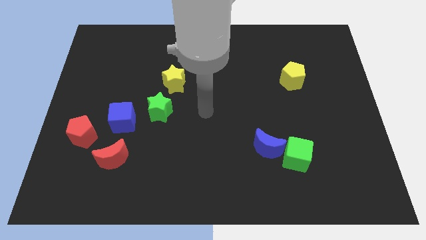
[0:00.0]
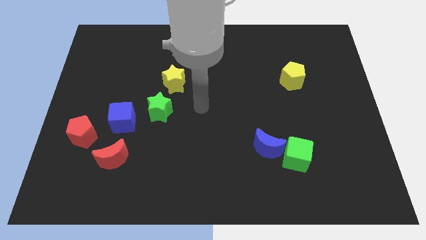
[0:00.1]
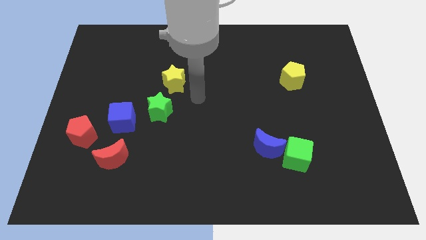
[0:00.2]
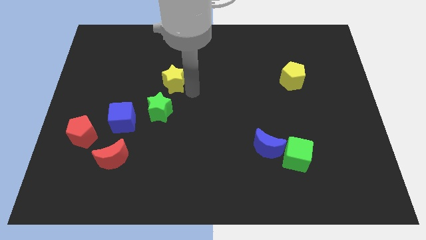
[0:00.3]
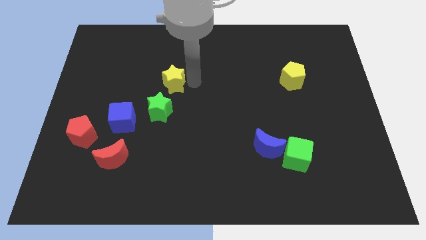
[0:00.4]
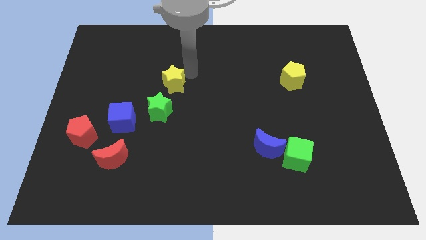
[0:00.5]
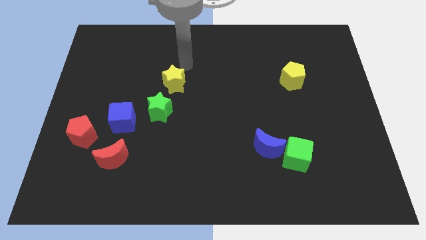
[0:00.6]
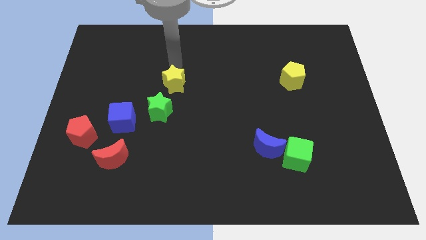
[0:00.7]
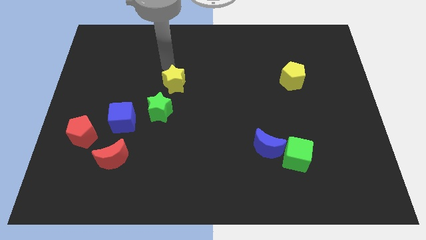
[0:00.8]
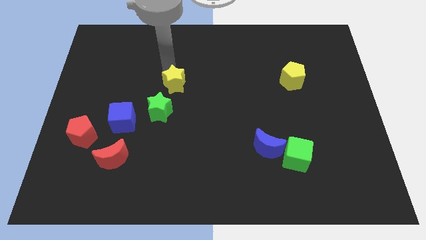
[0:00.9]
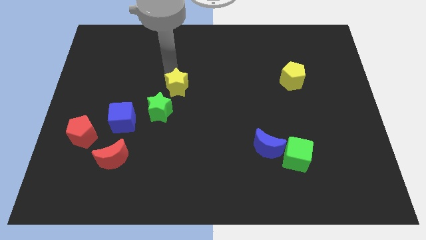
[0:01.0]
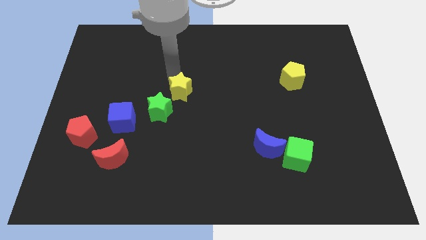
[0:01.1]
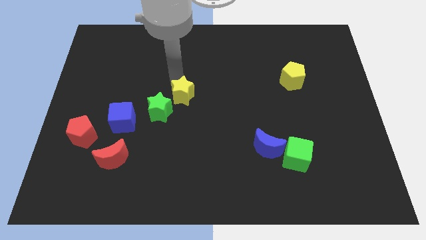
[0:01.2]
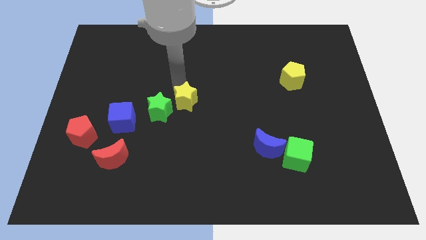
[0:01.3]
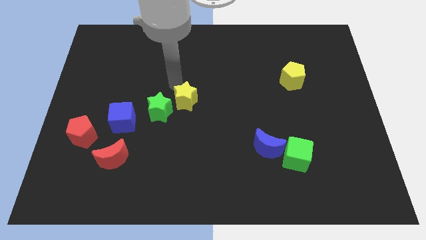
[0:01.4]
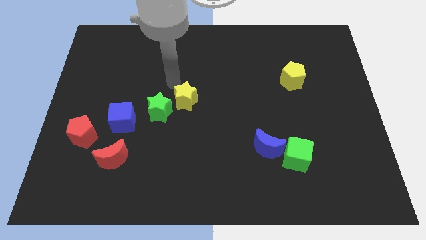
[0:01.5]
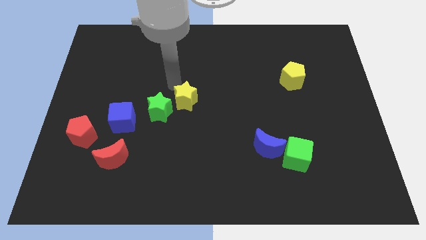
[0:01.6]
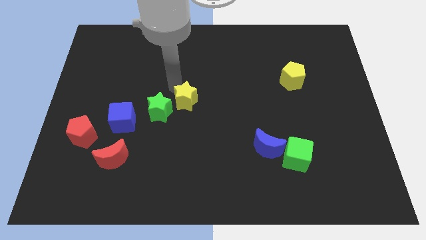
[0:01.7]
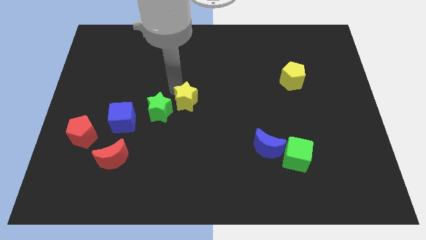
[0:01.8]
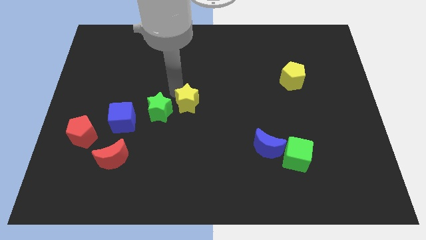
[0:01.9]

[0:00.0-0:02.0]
push the yellow star downwards and to the right diagonally a little

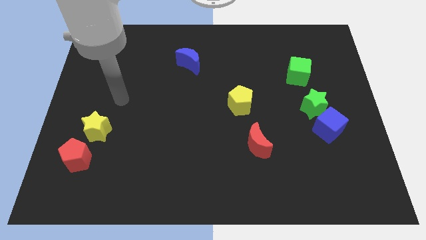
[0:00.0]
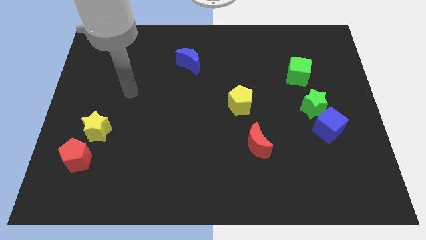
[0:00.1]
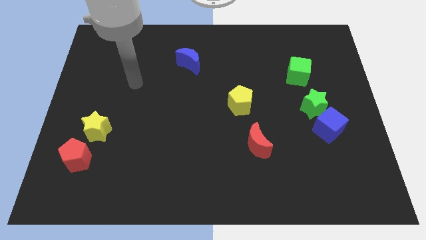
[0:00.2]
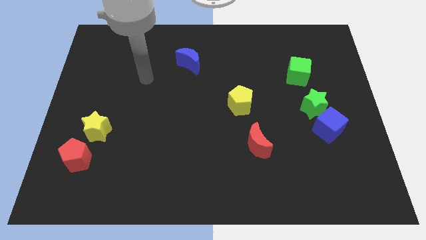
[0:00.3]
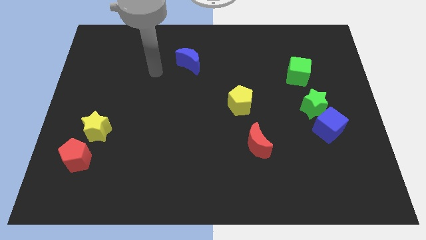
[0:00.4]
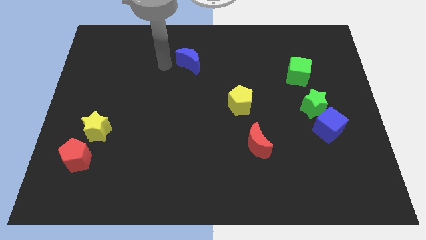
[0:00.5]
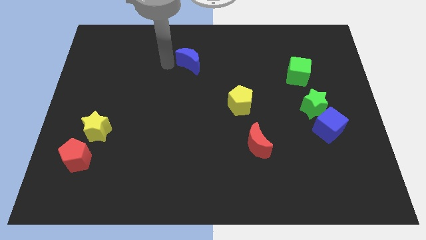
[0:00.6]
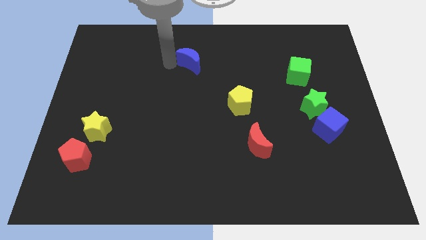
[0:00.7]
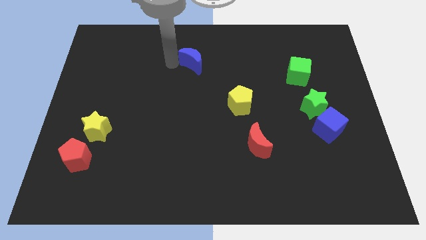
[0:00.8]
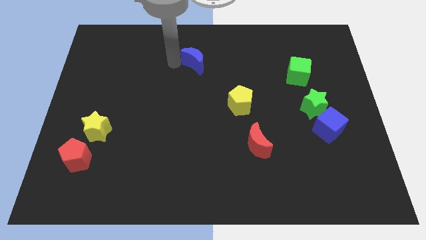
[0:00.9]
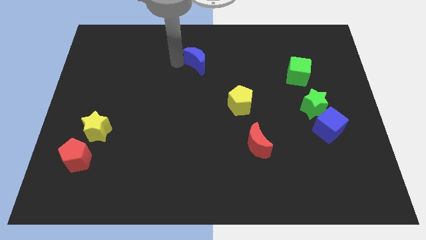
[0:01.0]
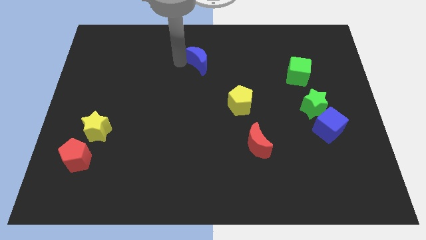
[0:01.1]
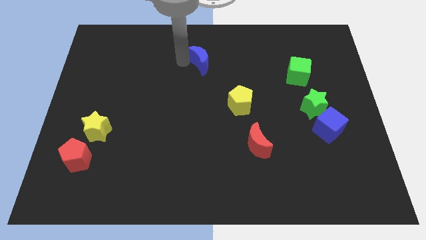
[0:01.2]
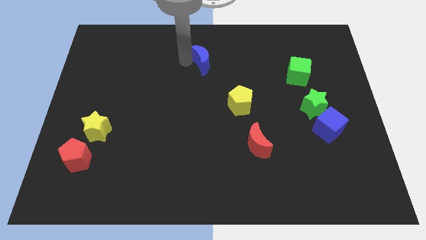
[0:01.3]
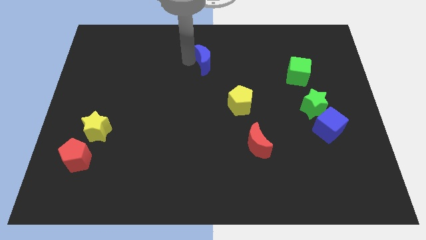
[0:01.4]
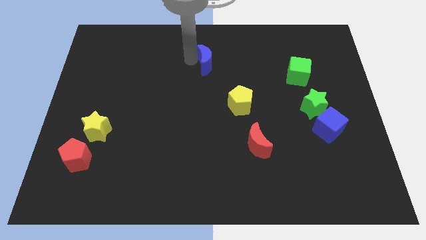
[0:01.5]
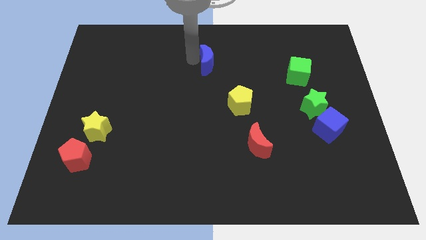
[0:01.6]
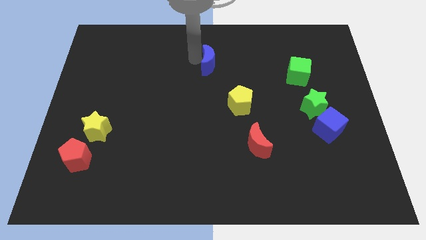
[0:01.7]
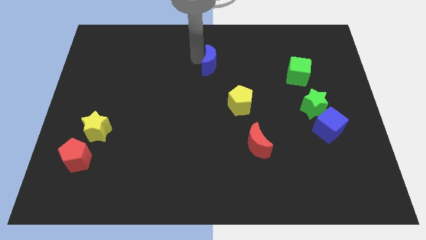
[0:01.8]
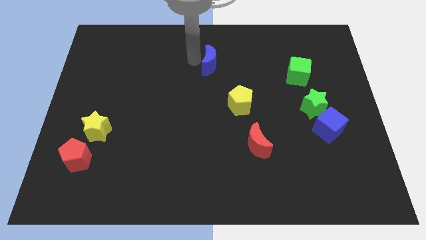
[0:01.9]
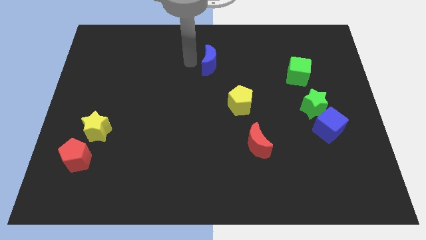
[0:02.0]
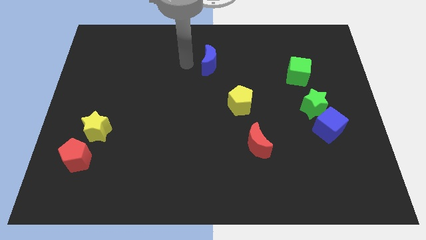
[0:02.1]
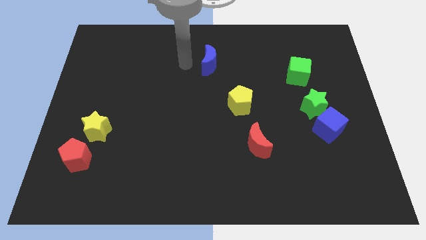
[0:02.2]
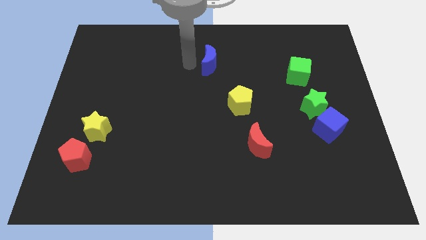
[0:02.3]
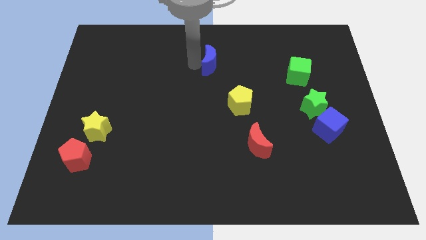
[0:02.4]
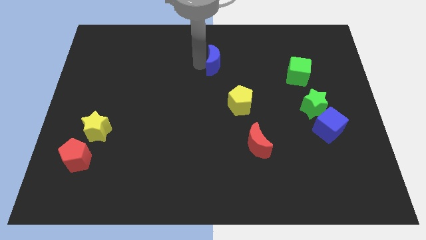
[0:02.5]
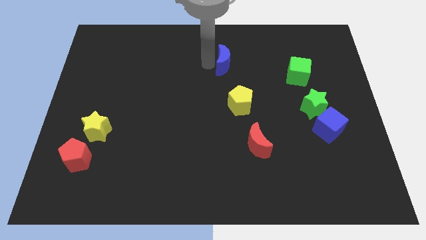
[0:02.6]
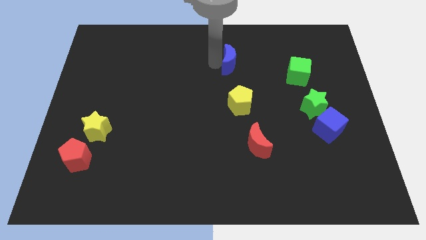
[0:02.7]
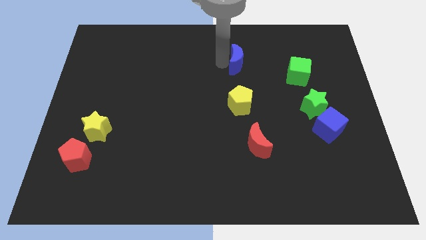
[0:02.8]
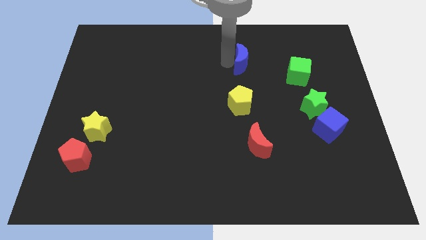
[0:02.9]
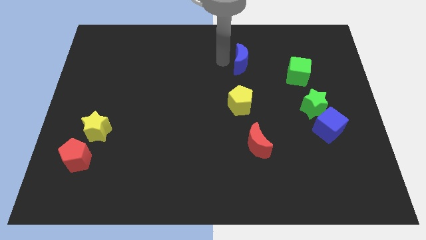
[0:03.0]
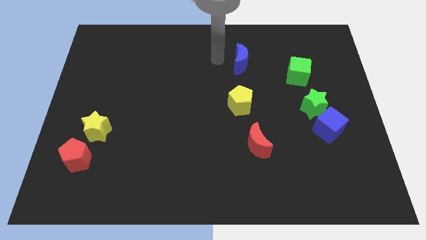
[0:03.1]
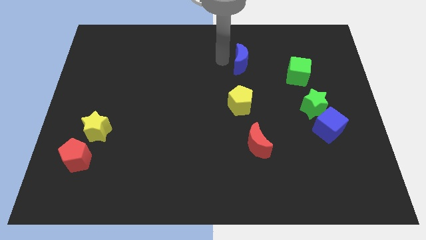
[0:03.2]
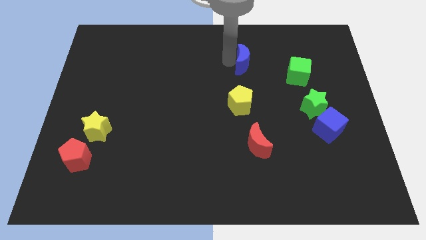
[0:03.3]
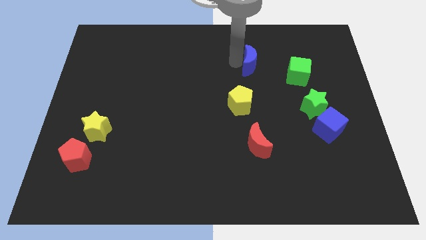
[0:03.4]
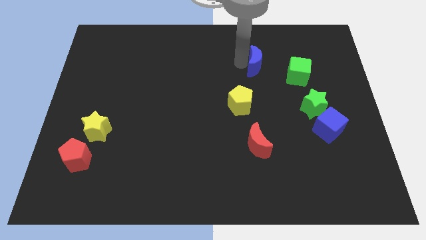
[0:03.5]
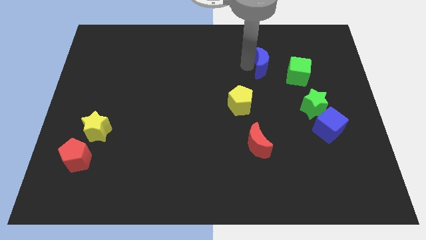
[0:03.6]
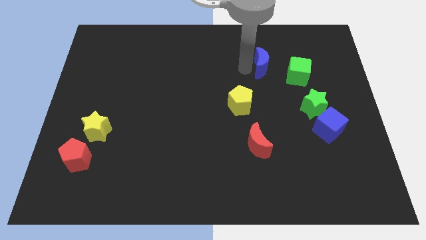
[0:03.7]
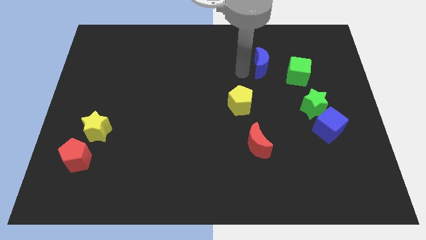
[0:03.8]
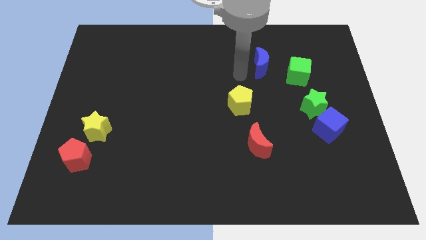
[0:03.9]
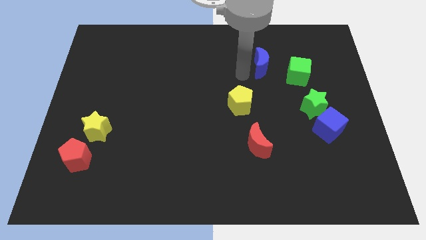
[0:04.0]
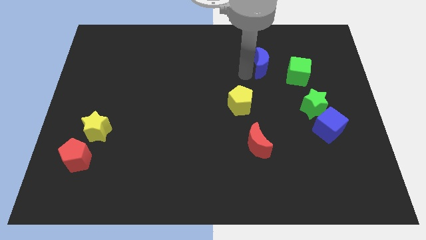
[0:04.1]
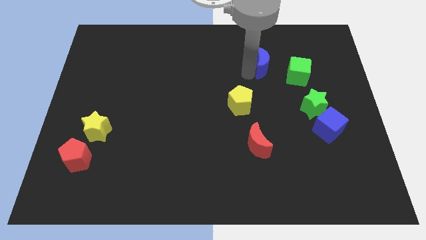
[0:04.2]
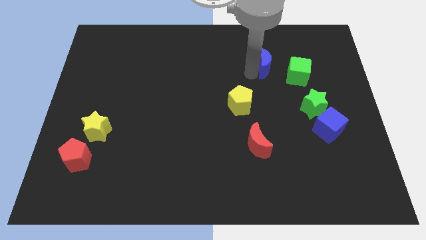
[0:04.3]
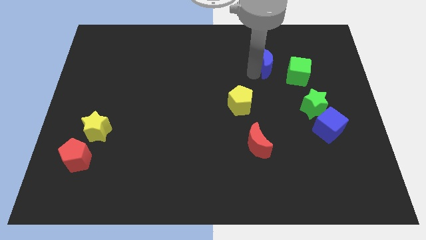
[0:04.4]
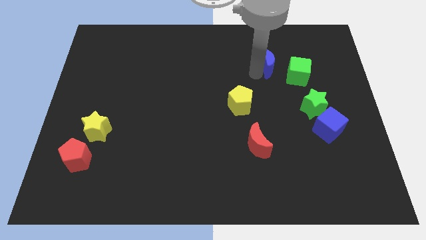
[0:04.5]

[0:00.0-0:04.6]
slide the blue moon to the right

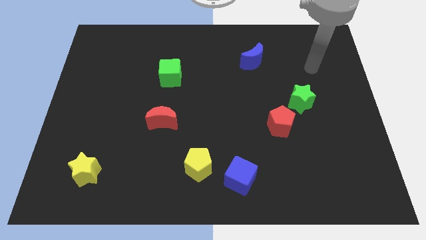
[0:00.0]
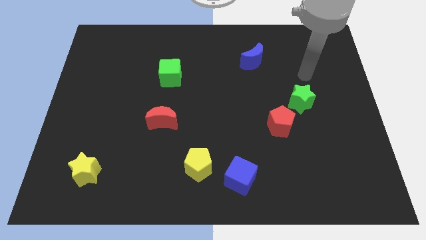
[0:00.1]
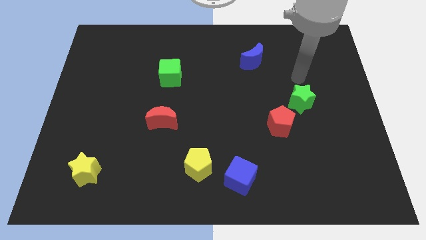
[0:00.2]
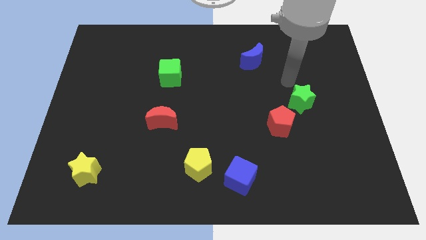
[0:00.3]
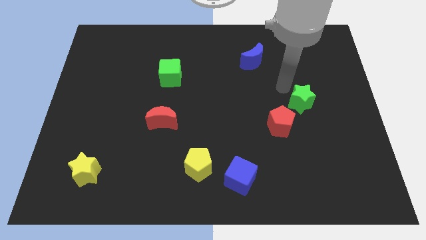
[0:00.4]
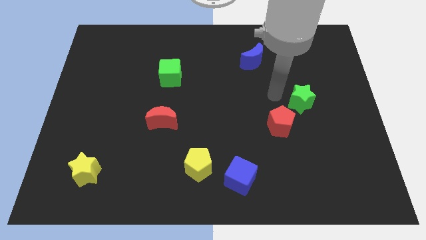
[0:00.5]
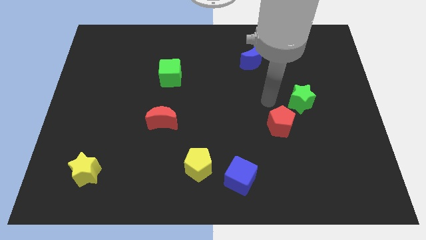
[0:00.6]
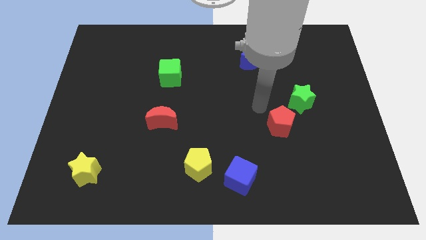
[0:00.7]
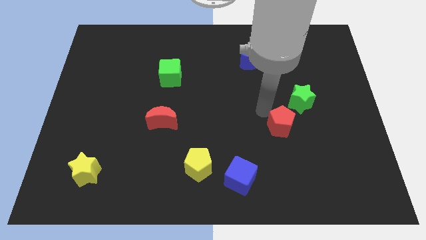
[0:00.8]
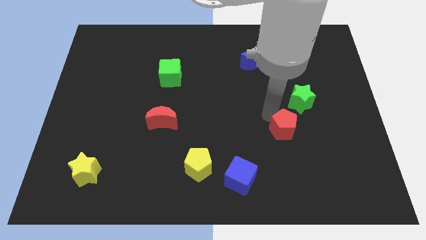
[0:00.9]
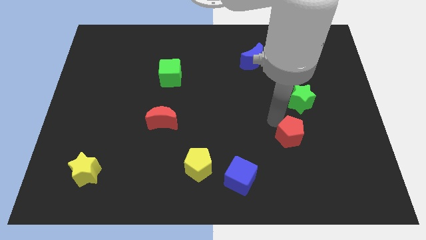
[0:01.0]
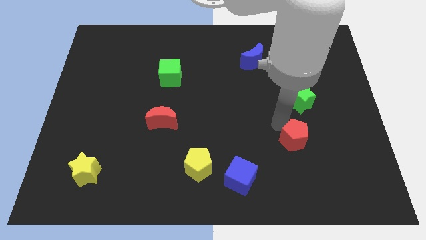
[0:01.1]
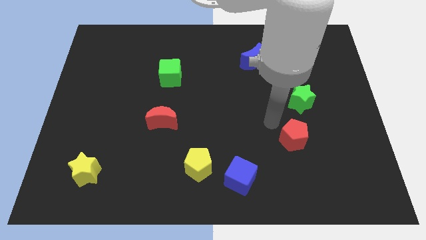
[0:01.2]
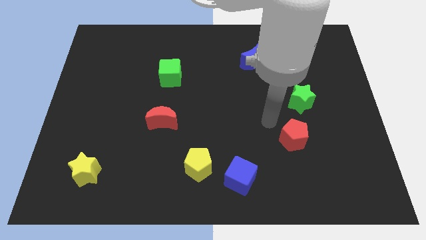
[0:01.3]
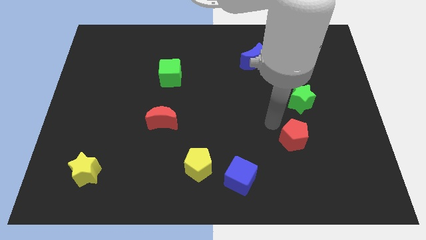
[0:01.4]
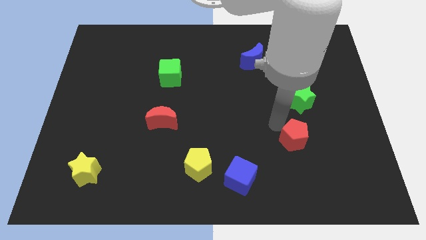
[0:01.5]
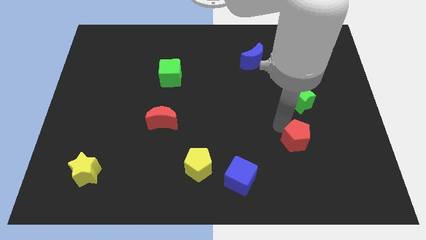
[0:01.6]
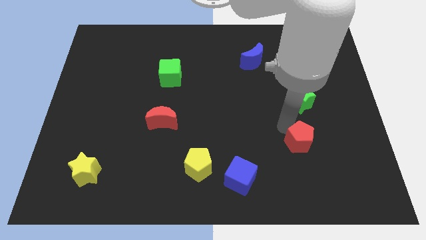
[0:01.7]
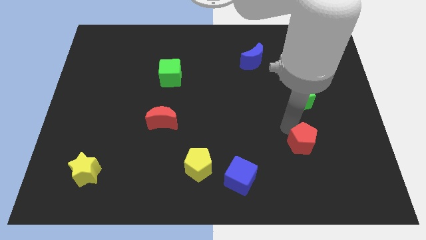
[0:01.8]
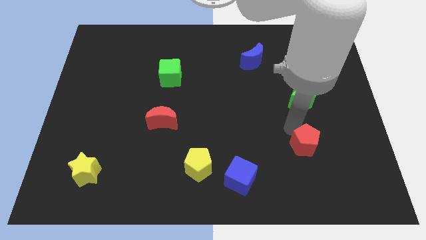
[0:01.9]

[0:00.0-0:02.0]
push the red pentagon slightly down and then to the right
